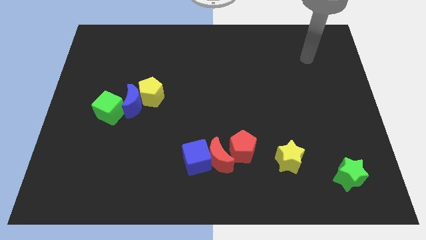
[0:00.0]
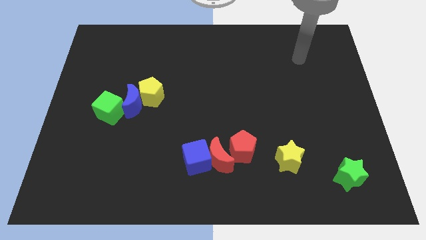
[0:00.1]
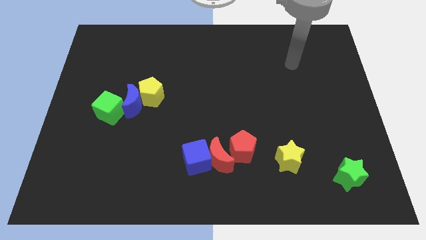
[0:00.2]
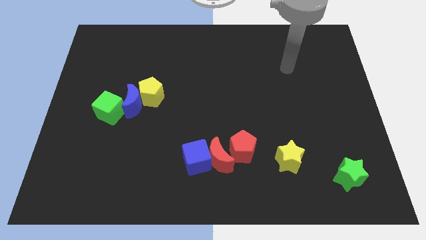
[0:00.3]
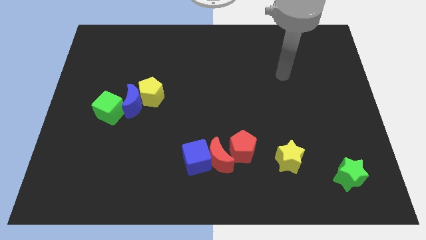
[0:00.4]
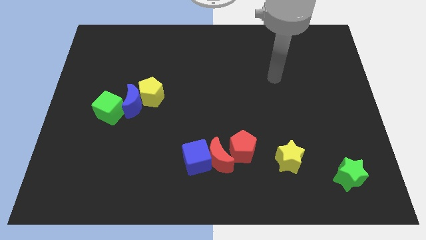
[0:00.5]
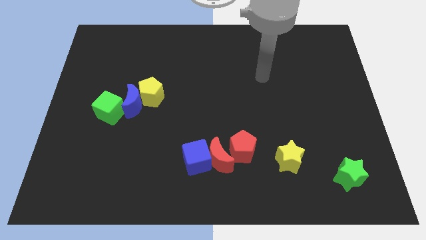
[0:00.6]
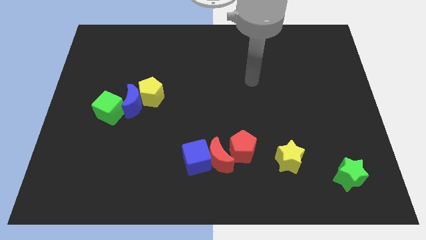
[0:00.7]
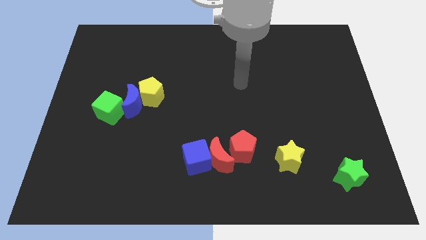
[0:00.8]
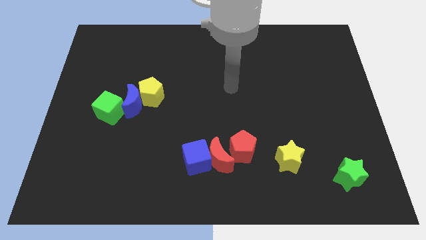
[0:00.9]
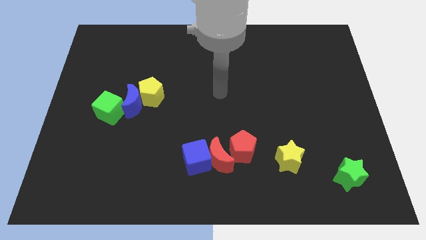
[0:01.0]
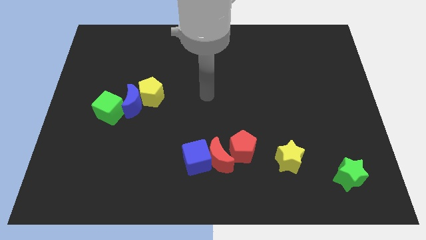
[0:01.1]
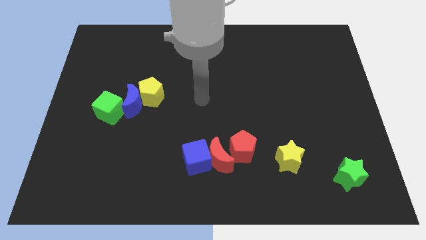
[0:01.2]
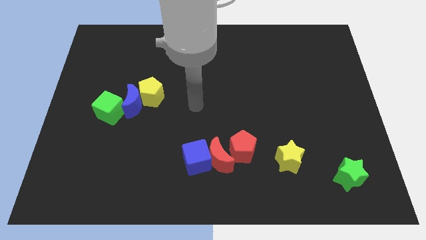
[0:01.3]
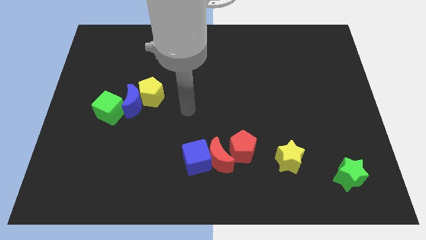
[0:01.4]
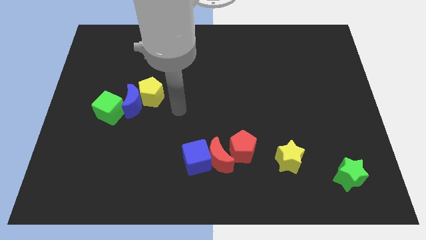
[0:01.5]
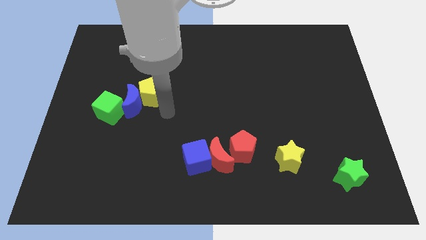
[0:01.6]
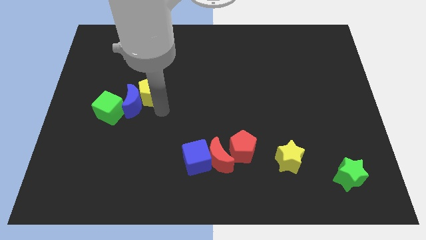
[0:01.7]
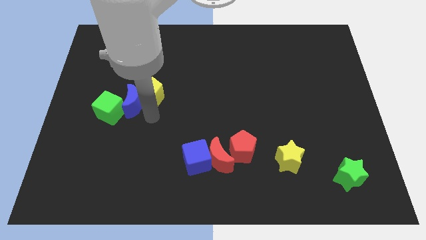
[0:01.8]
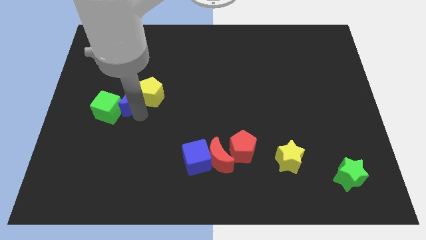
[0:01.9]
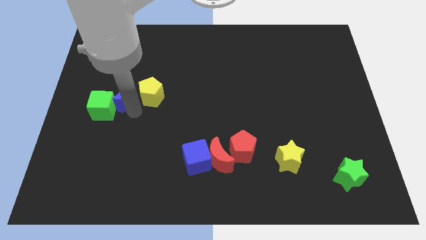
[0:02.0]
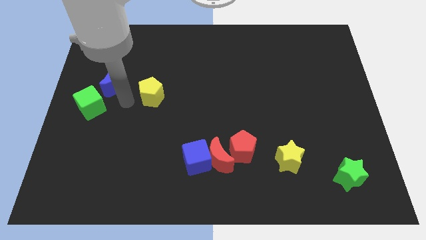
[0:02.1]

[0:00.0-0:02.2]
pull the yellow pentagon apart from the blue moon

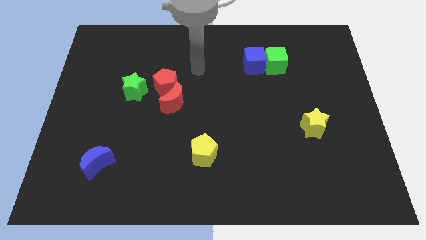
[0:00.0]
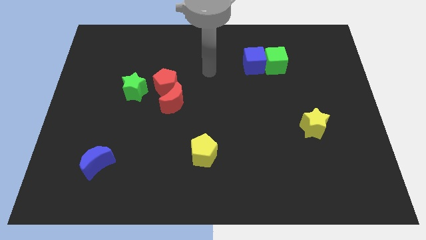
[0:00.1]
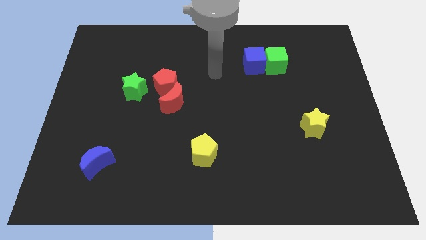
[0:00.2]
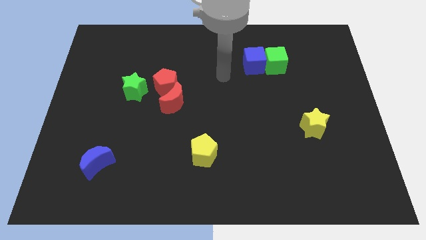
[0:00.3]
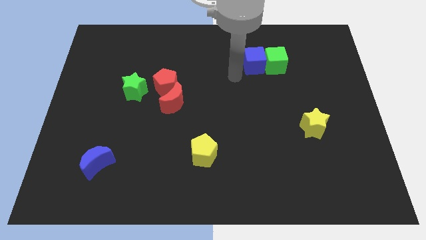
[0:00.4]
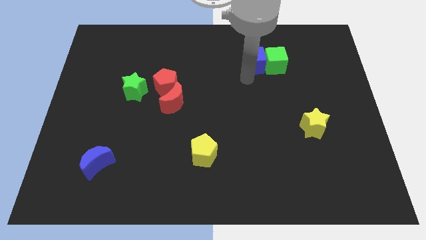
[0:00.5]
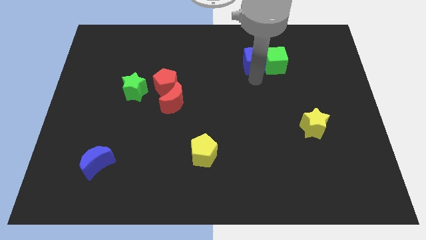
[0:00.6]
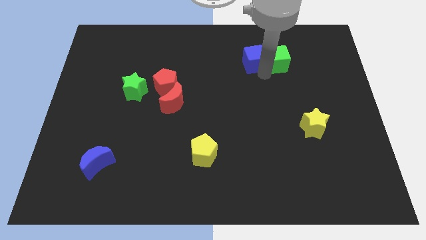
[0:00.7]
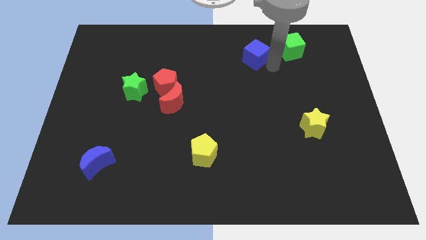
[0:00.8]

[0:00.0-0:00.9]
separate the blue cube from the green cube

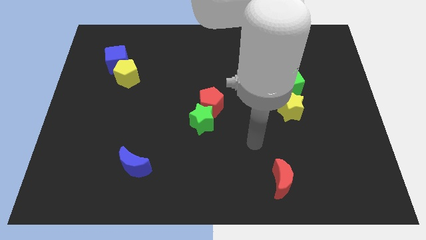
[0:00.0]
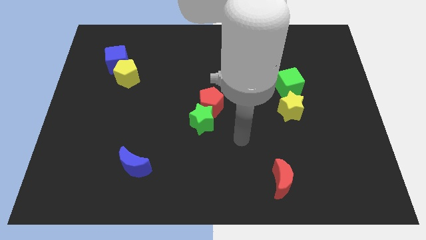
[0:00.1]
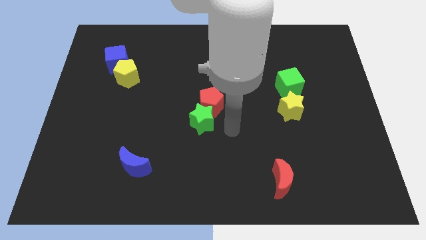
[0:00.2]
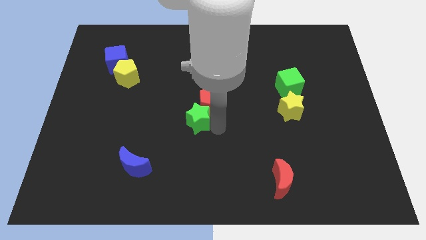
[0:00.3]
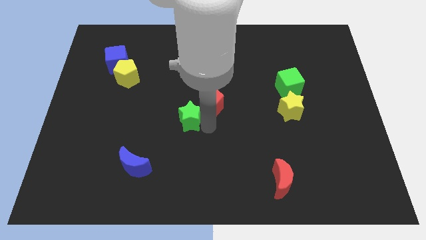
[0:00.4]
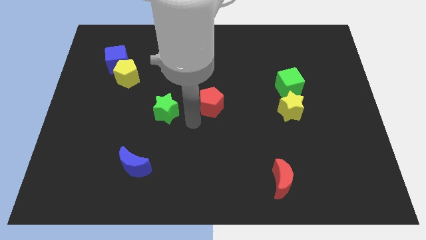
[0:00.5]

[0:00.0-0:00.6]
pull the red pentagon apart from the green star

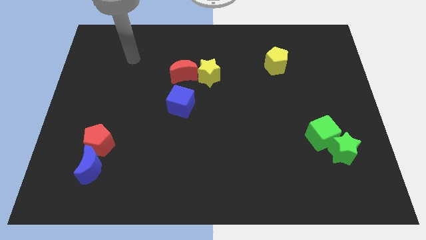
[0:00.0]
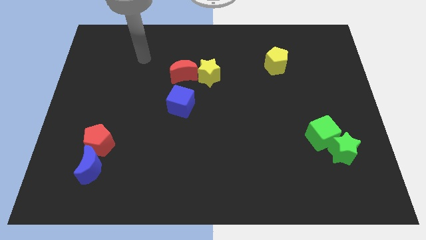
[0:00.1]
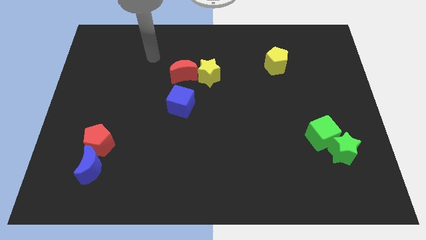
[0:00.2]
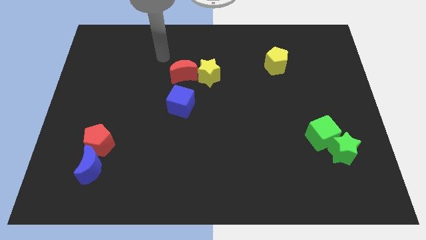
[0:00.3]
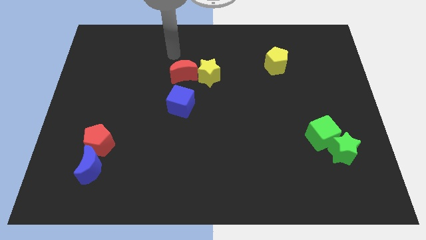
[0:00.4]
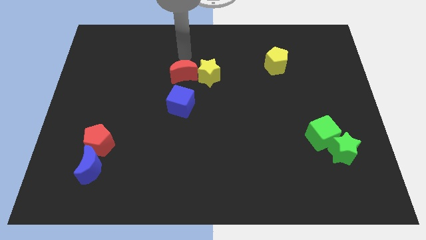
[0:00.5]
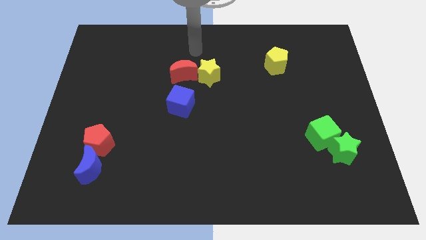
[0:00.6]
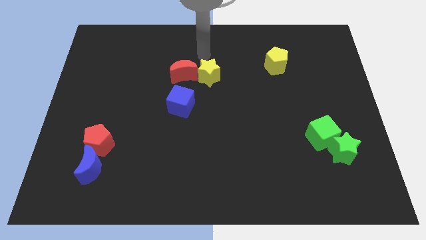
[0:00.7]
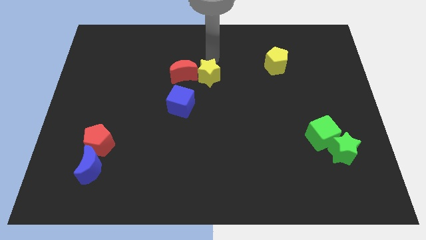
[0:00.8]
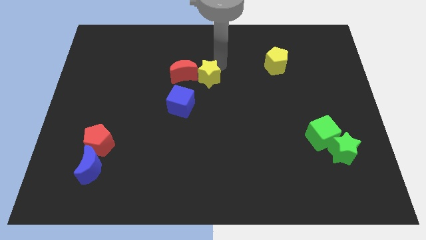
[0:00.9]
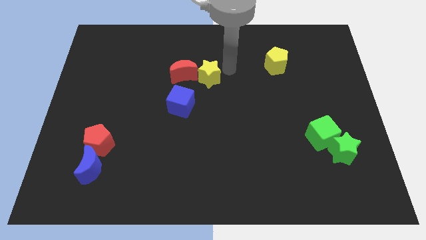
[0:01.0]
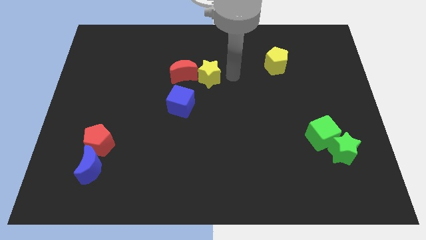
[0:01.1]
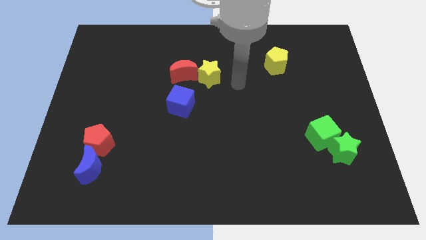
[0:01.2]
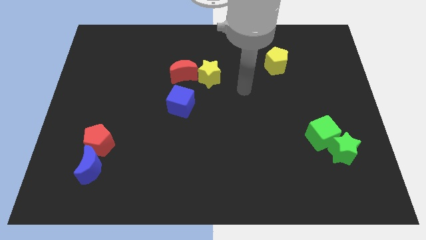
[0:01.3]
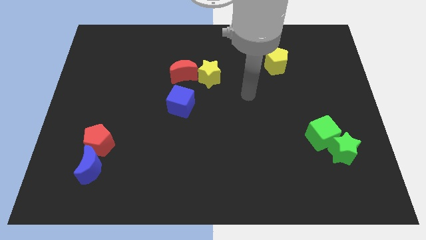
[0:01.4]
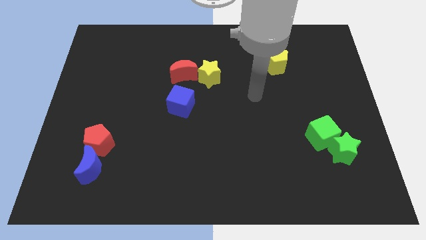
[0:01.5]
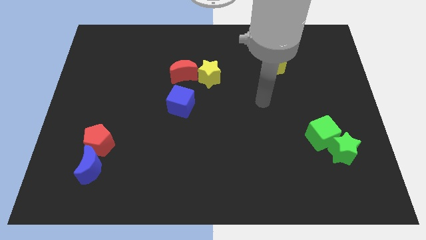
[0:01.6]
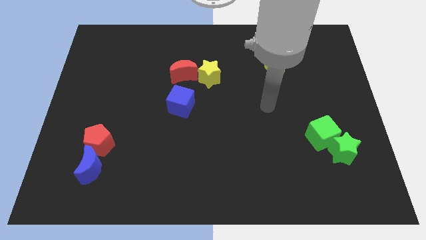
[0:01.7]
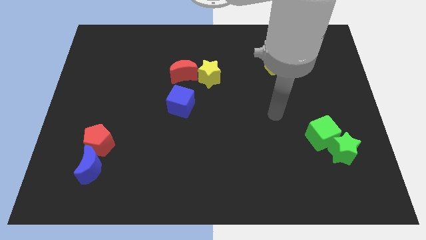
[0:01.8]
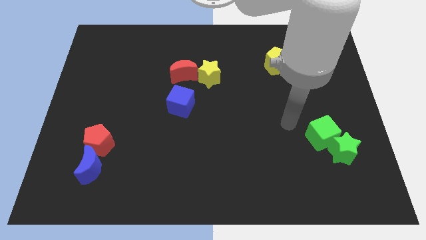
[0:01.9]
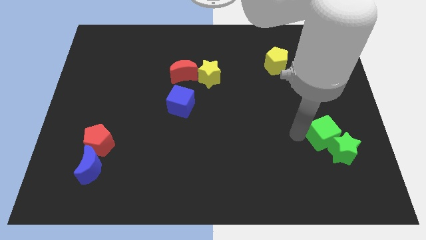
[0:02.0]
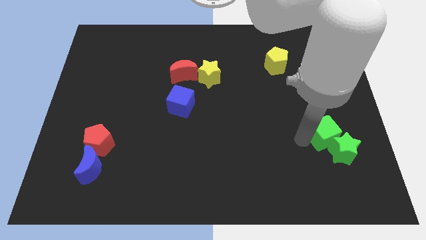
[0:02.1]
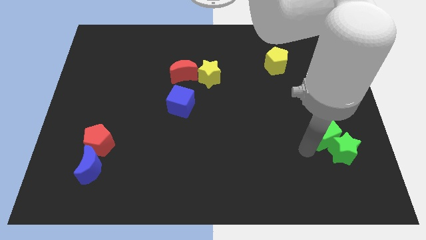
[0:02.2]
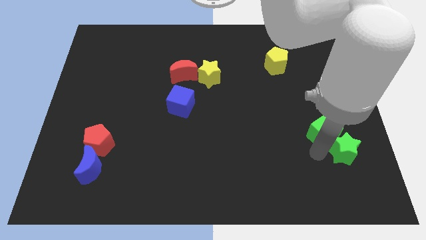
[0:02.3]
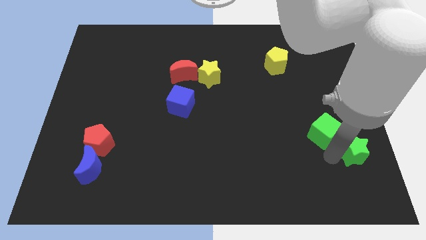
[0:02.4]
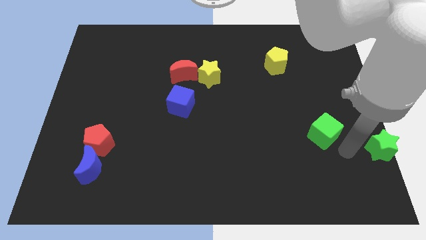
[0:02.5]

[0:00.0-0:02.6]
pull the green cube apart from the green star

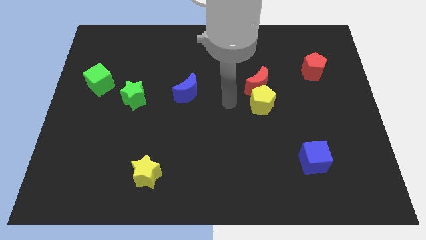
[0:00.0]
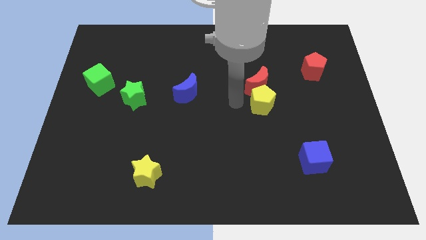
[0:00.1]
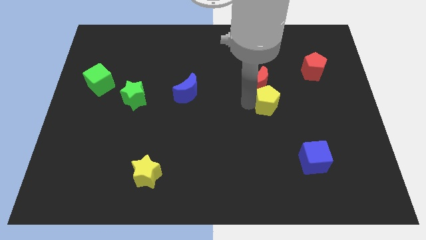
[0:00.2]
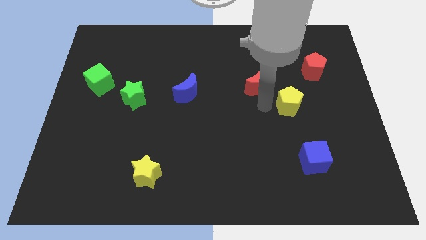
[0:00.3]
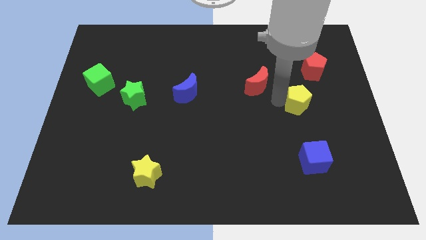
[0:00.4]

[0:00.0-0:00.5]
pull the red moon apart from the yellow pentagon

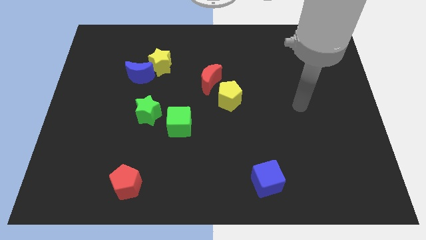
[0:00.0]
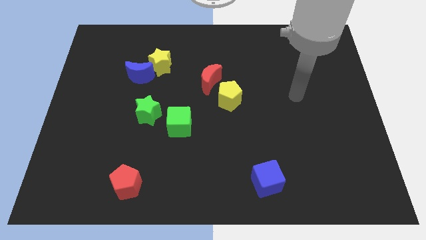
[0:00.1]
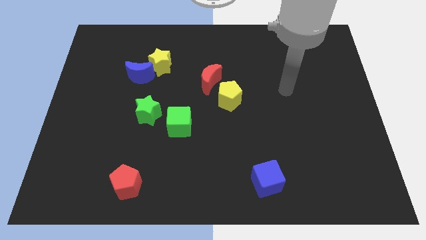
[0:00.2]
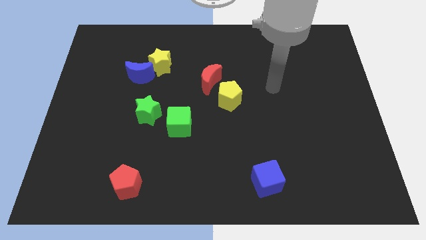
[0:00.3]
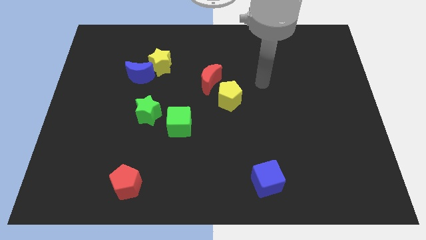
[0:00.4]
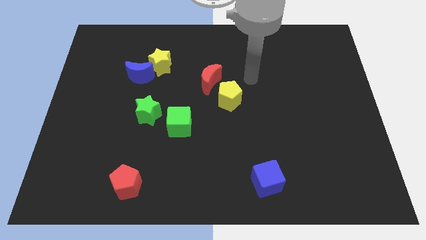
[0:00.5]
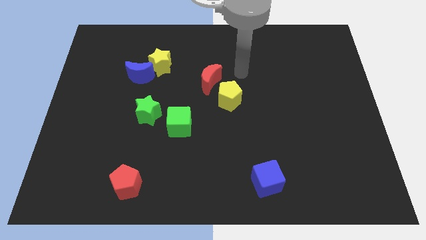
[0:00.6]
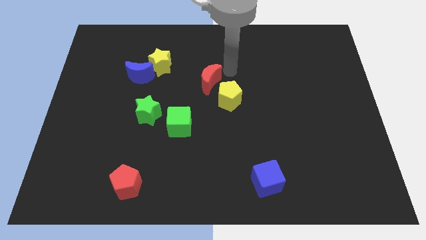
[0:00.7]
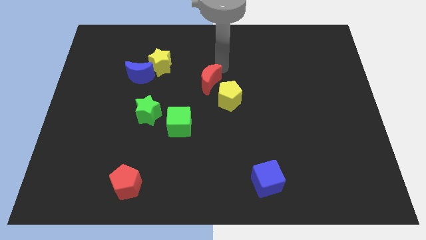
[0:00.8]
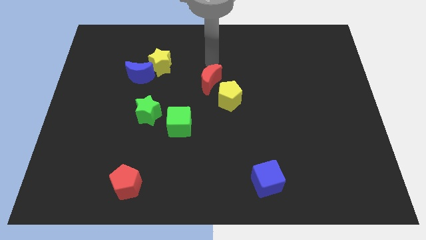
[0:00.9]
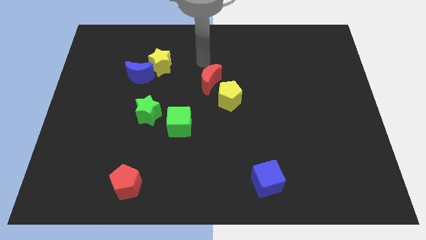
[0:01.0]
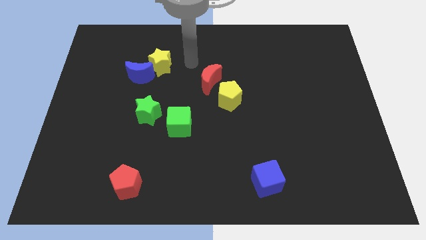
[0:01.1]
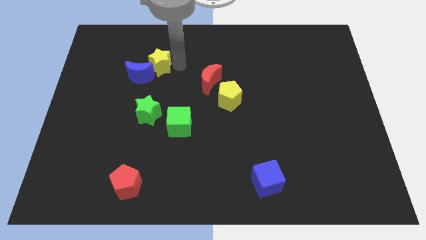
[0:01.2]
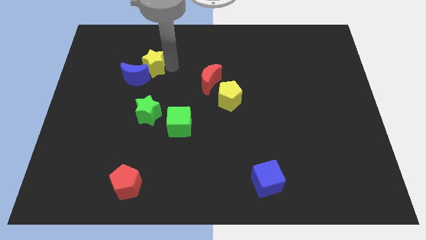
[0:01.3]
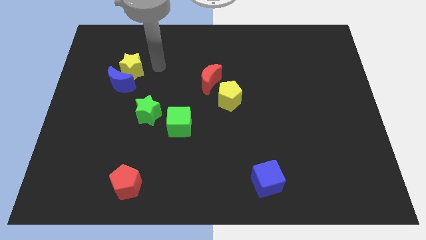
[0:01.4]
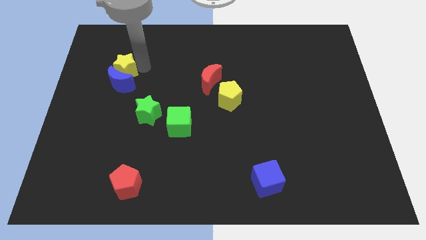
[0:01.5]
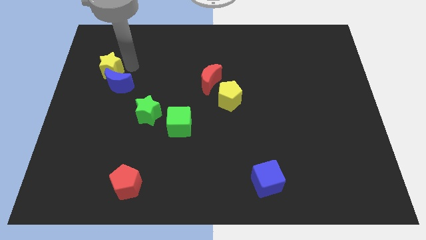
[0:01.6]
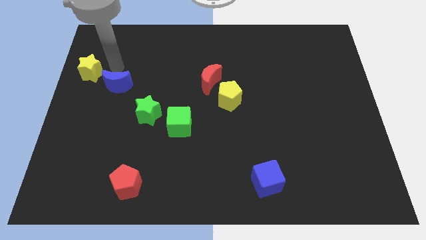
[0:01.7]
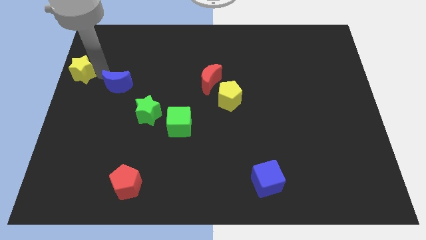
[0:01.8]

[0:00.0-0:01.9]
separate the blue moon from the yellow star

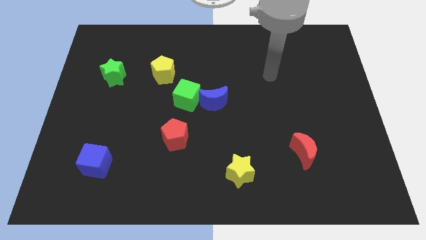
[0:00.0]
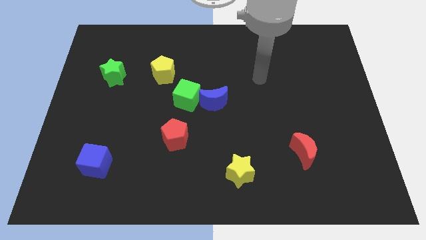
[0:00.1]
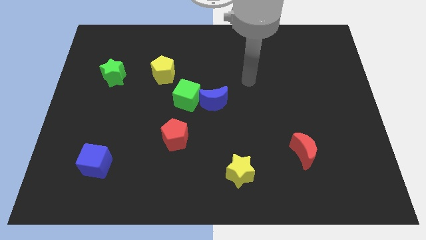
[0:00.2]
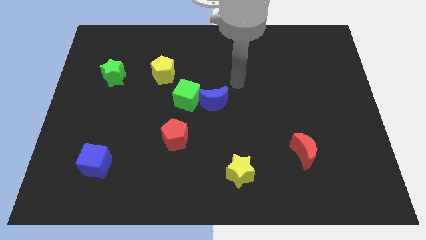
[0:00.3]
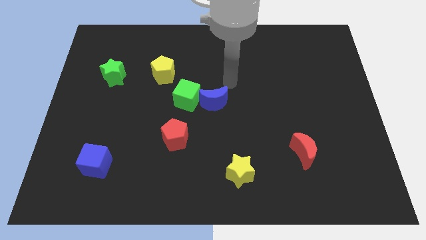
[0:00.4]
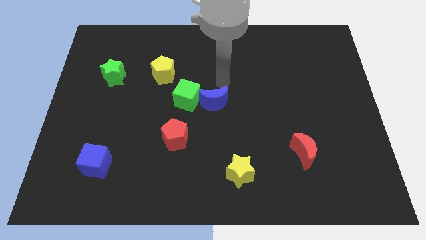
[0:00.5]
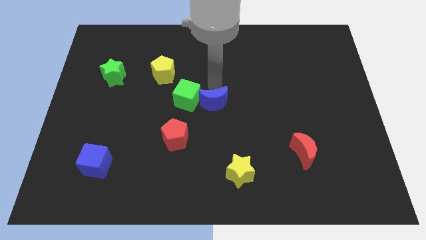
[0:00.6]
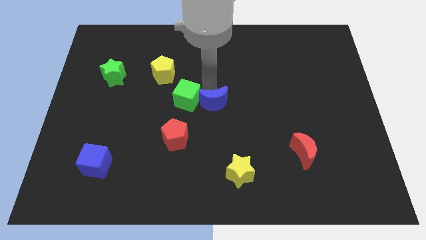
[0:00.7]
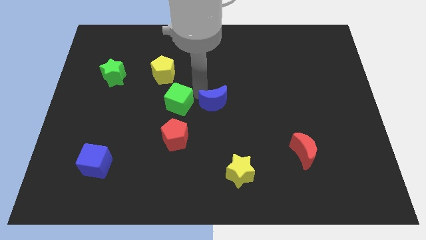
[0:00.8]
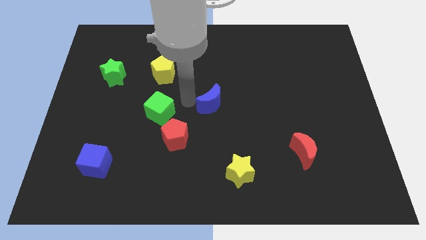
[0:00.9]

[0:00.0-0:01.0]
move the blue moon away from the green cube
